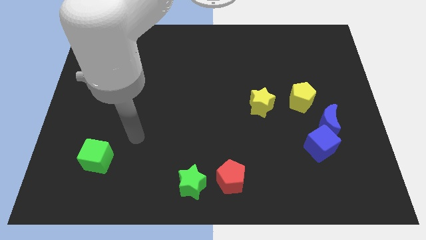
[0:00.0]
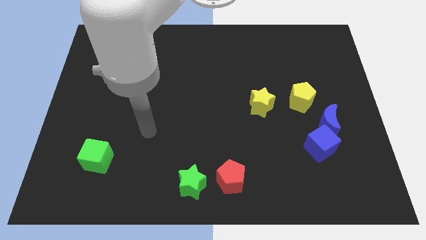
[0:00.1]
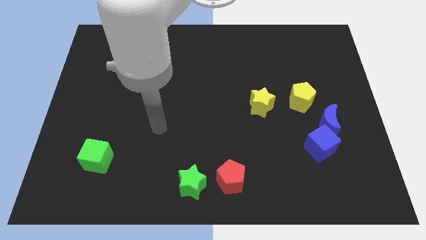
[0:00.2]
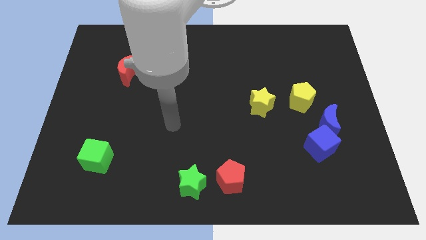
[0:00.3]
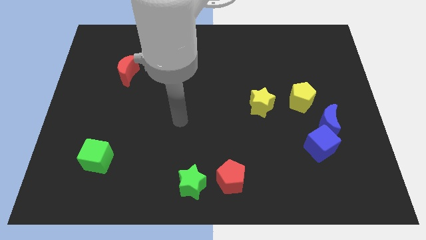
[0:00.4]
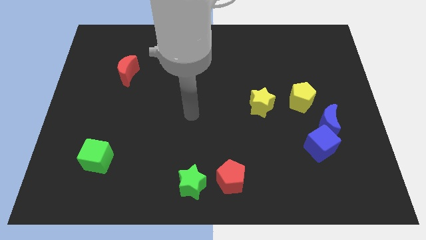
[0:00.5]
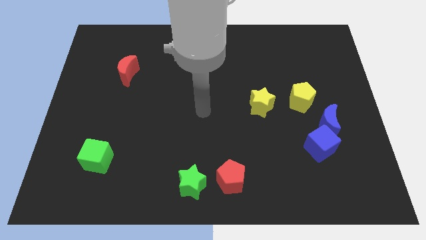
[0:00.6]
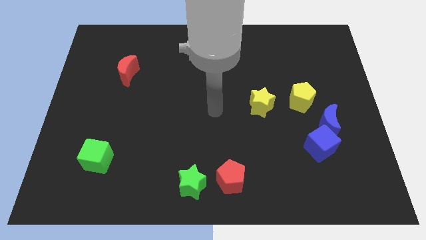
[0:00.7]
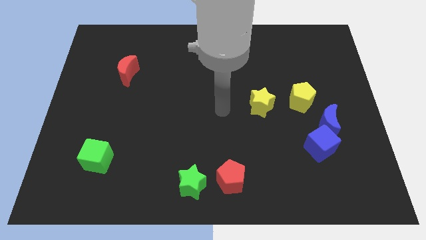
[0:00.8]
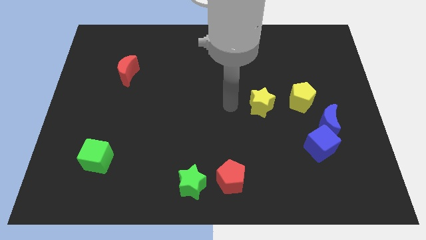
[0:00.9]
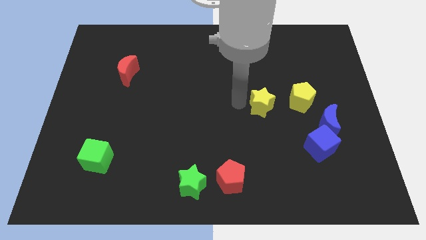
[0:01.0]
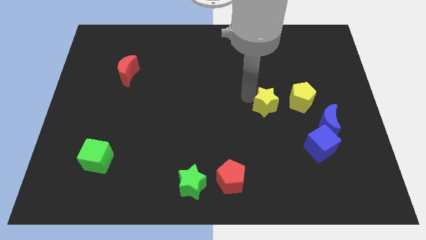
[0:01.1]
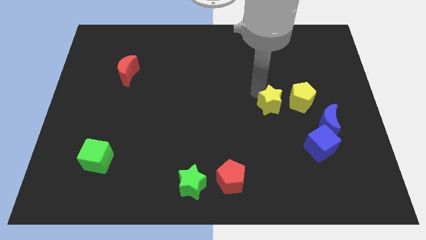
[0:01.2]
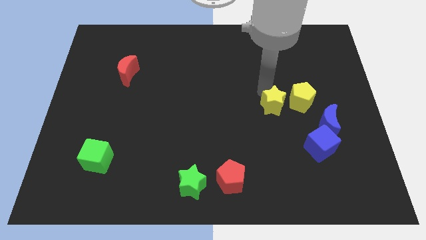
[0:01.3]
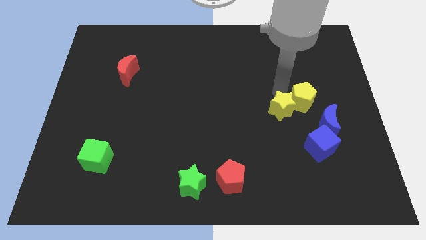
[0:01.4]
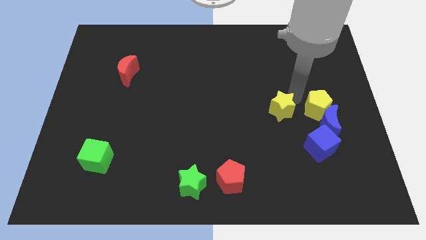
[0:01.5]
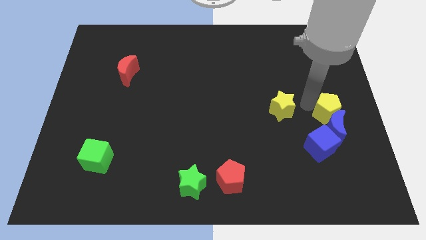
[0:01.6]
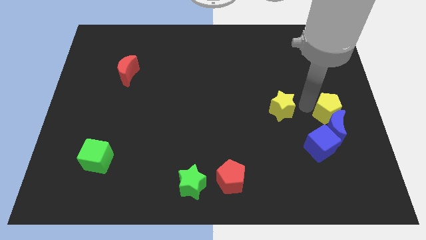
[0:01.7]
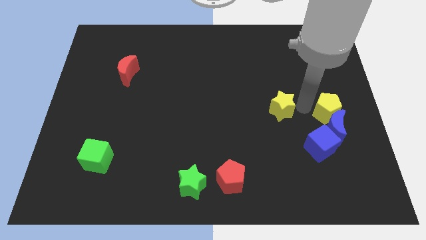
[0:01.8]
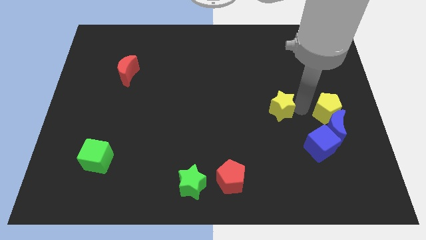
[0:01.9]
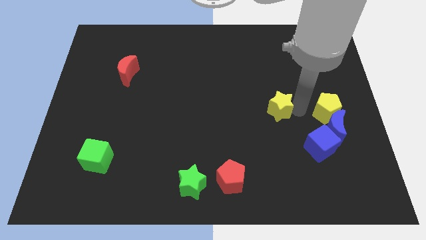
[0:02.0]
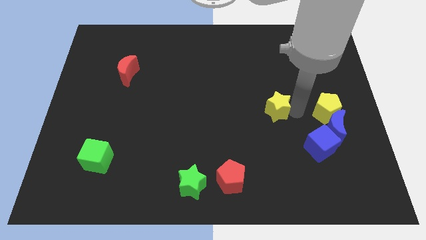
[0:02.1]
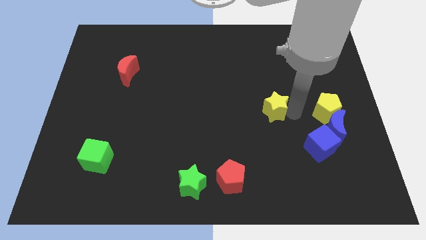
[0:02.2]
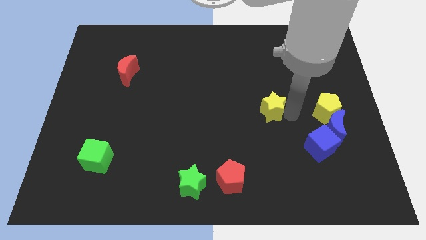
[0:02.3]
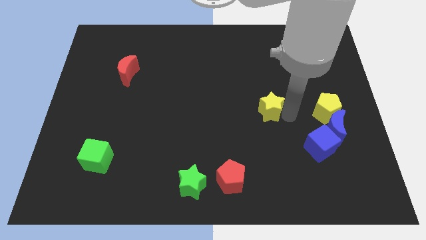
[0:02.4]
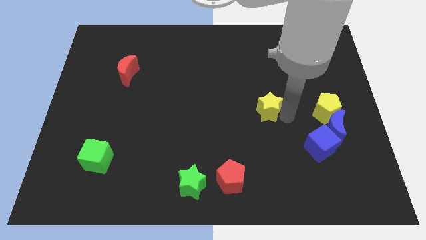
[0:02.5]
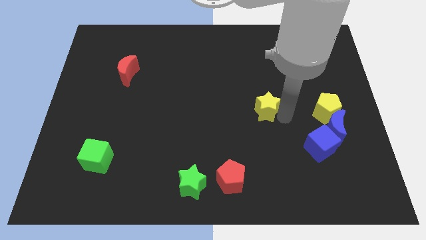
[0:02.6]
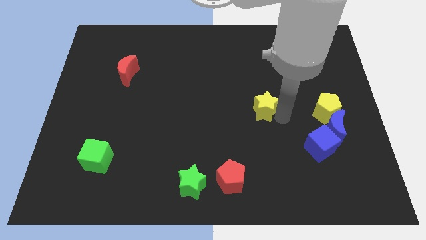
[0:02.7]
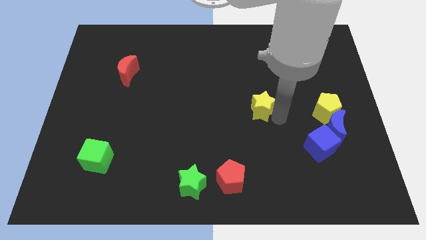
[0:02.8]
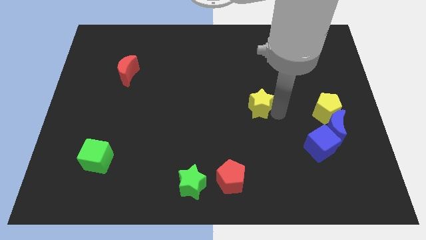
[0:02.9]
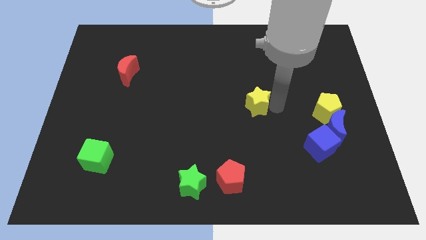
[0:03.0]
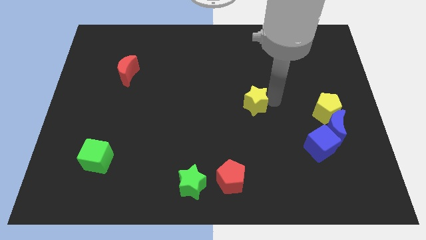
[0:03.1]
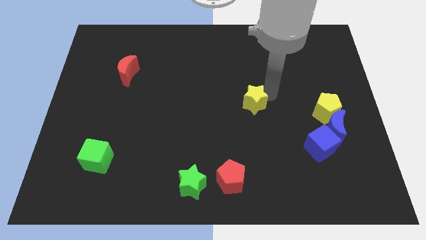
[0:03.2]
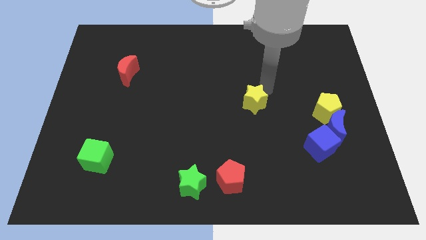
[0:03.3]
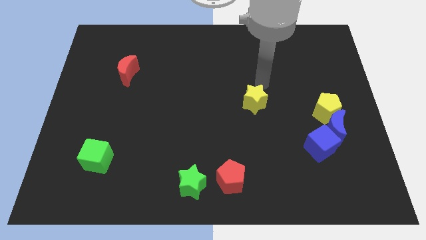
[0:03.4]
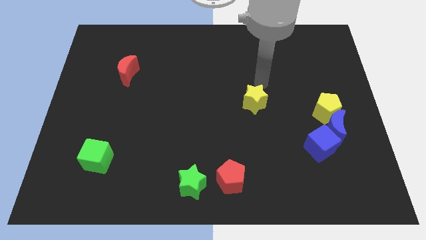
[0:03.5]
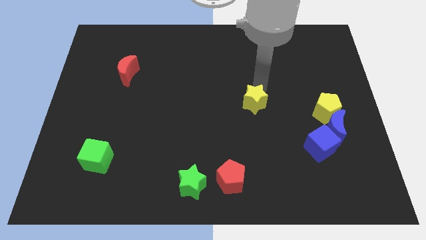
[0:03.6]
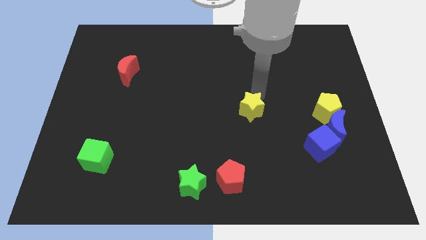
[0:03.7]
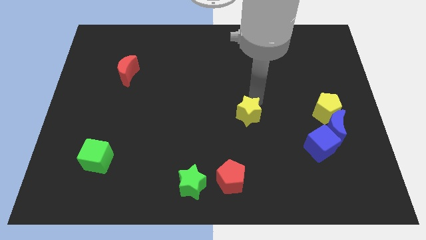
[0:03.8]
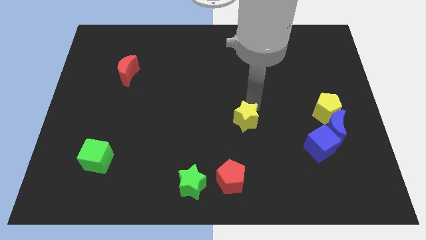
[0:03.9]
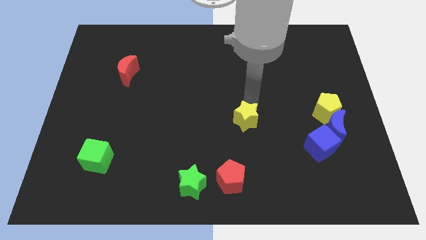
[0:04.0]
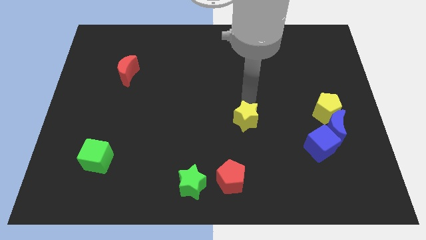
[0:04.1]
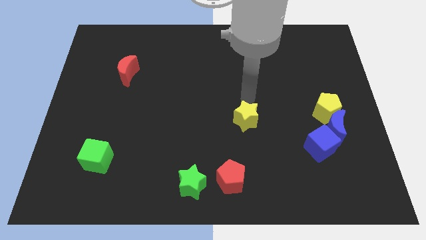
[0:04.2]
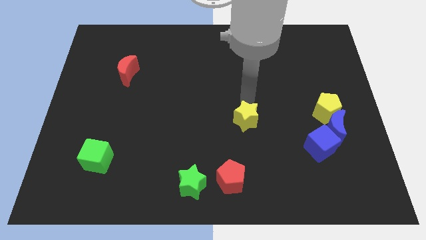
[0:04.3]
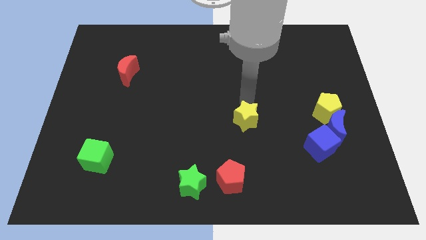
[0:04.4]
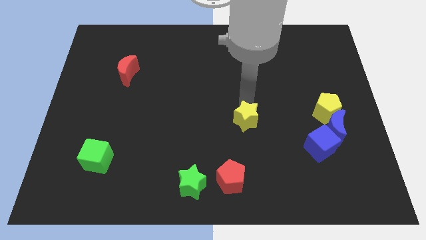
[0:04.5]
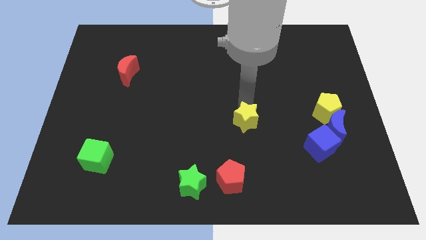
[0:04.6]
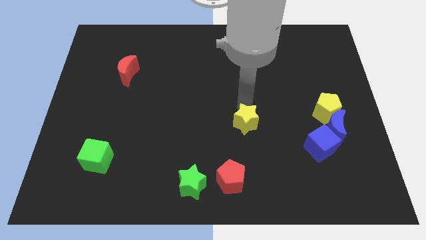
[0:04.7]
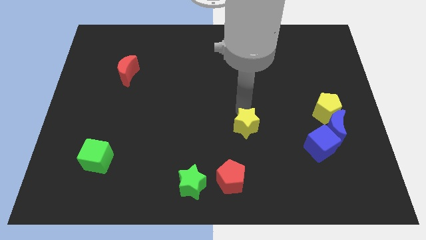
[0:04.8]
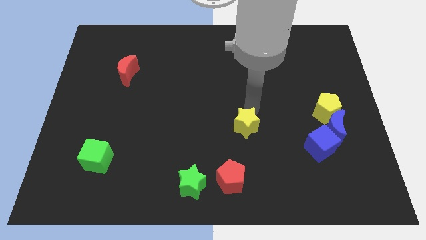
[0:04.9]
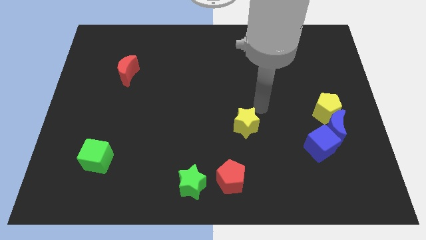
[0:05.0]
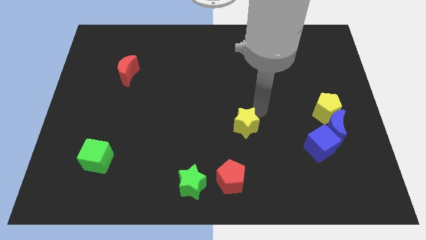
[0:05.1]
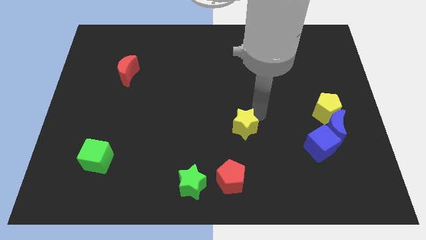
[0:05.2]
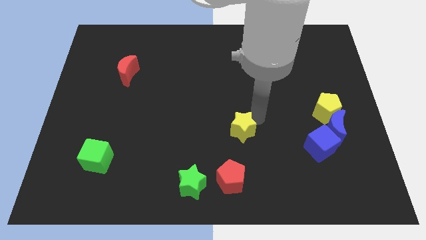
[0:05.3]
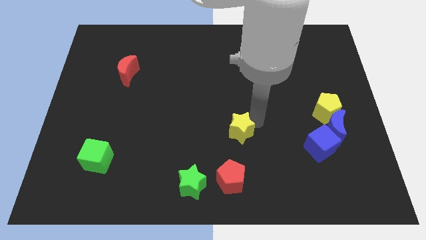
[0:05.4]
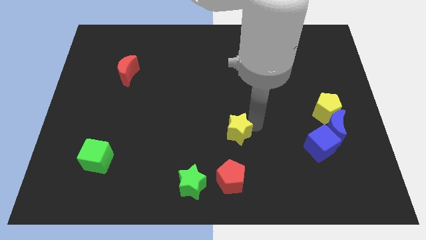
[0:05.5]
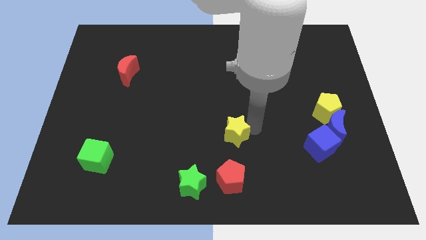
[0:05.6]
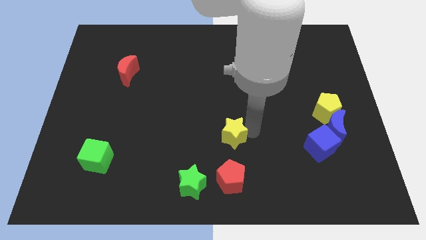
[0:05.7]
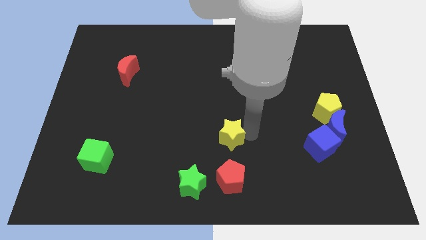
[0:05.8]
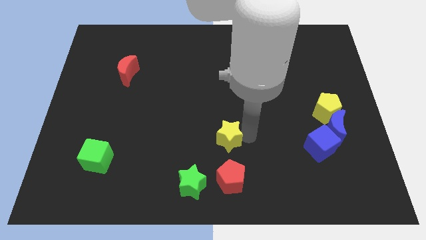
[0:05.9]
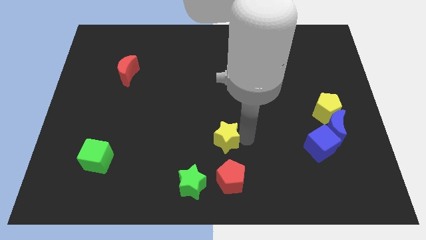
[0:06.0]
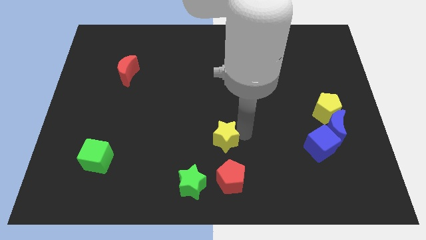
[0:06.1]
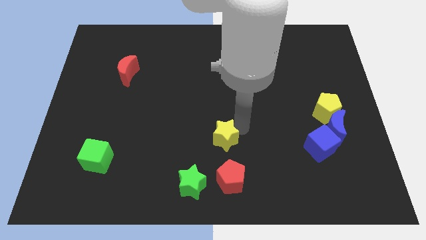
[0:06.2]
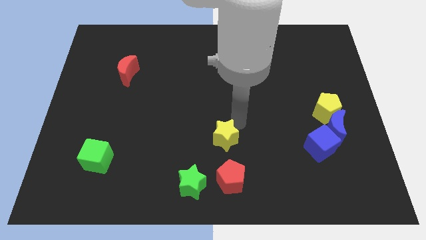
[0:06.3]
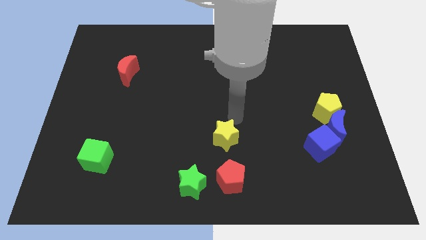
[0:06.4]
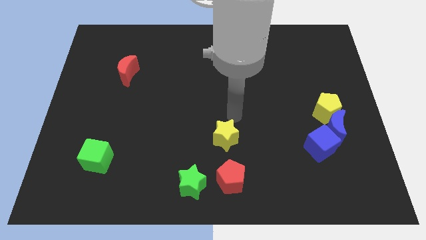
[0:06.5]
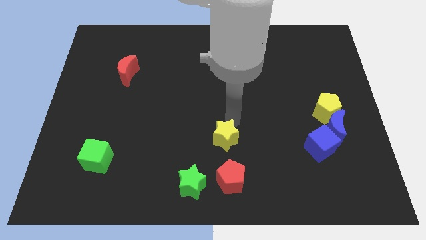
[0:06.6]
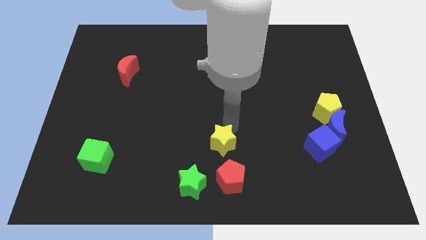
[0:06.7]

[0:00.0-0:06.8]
push the yellow star to the top right of the green star

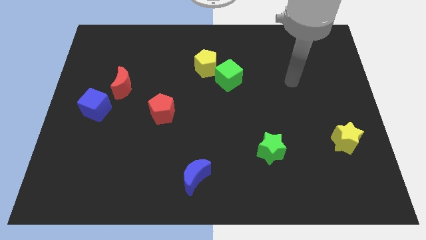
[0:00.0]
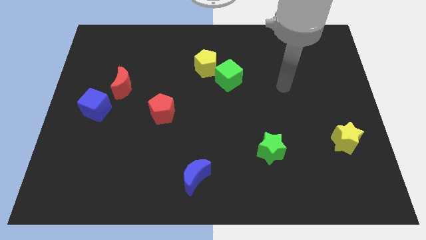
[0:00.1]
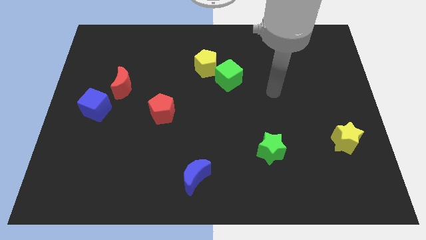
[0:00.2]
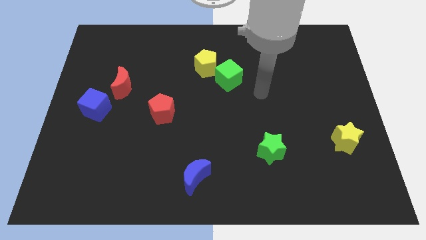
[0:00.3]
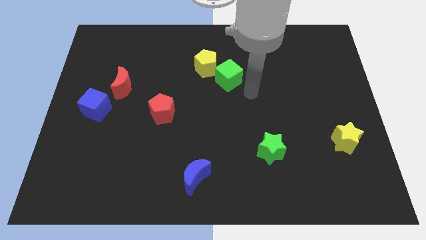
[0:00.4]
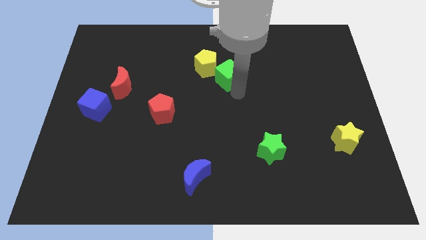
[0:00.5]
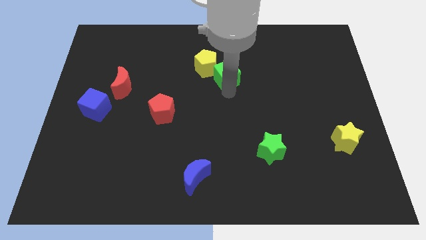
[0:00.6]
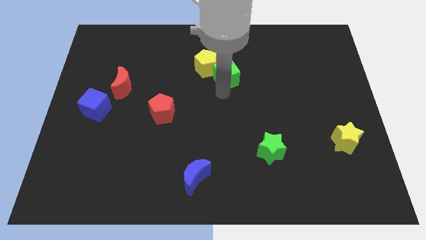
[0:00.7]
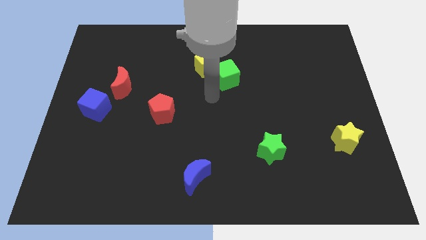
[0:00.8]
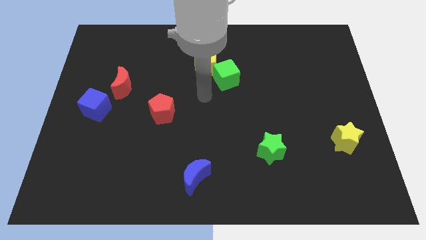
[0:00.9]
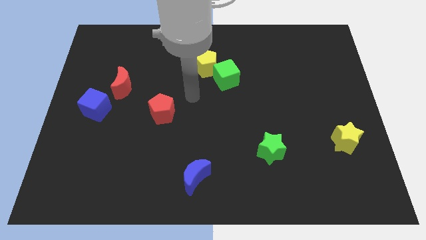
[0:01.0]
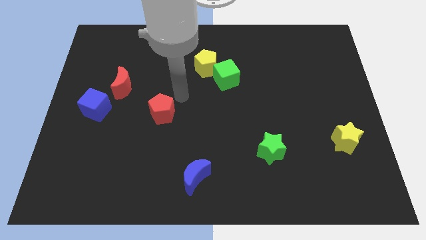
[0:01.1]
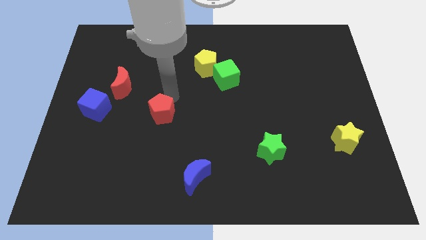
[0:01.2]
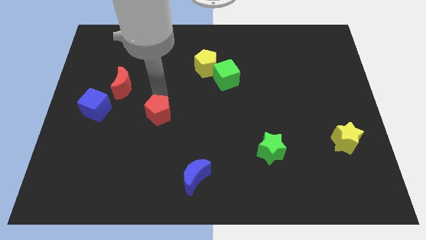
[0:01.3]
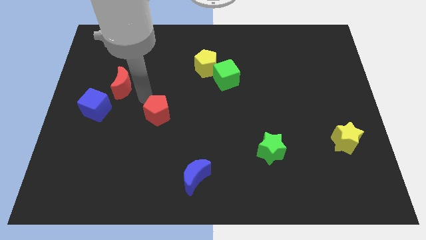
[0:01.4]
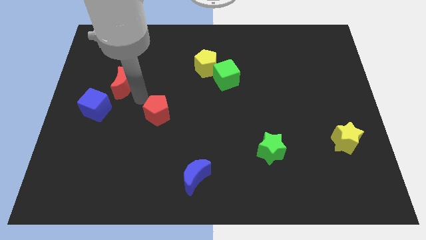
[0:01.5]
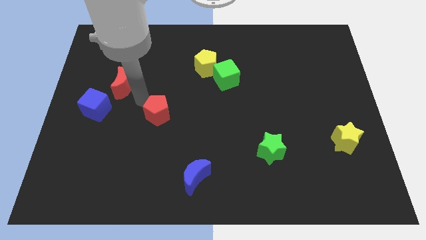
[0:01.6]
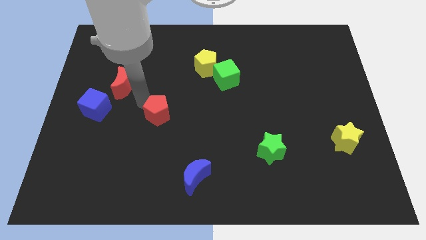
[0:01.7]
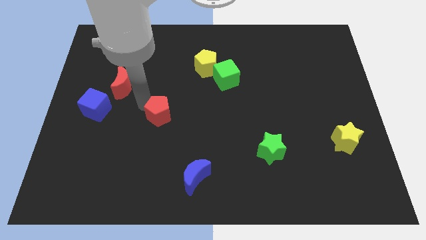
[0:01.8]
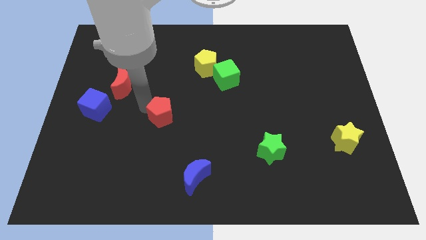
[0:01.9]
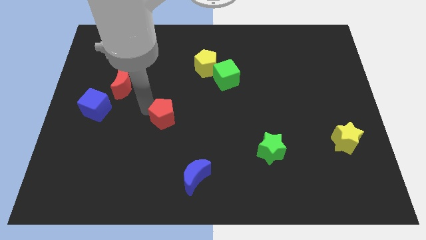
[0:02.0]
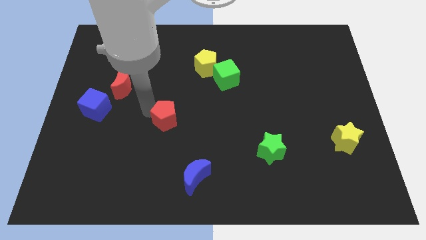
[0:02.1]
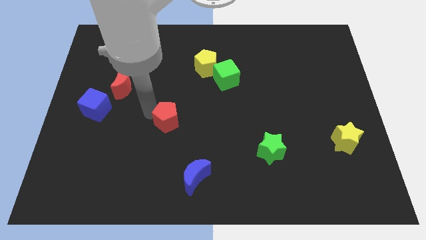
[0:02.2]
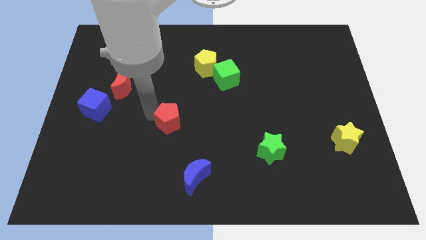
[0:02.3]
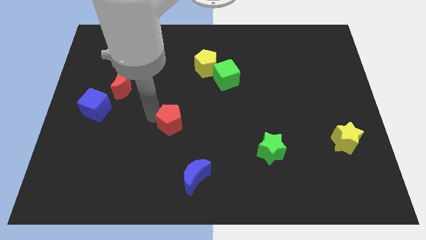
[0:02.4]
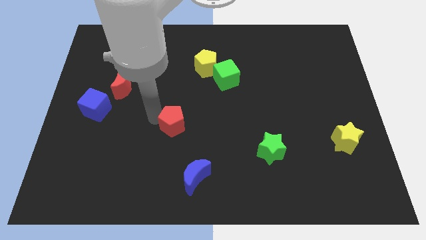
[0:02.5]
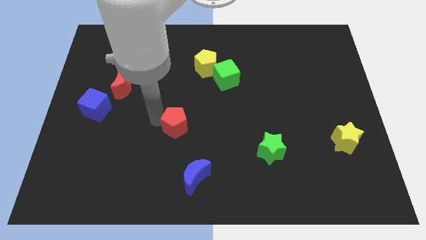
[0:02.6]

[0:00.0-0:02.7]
put the red pentagon above the blue moon
